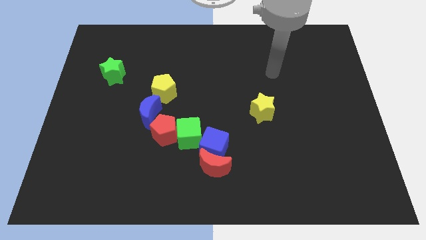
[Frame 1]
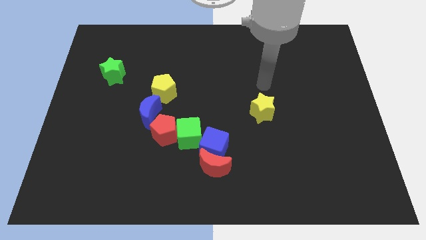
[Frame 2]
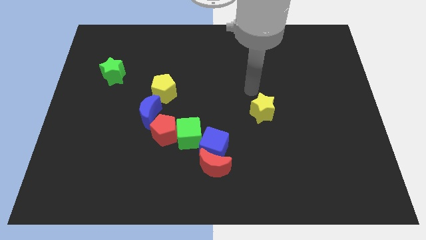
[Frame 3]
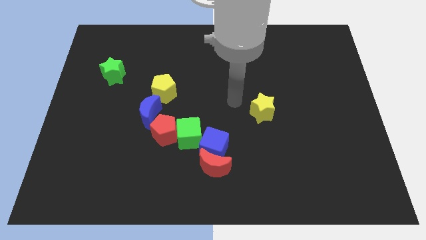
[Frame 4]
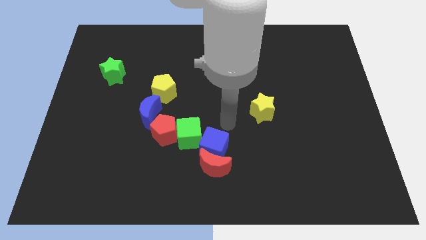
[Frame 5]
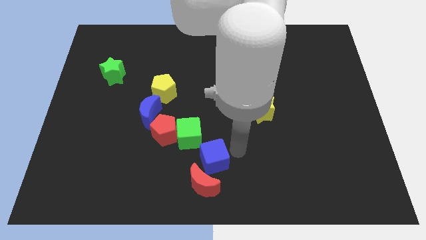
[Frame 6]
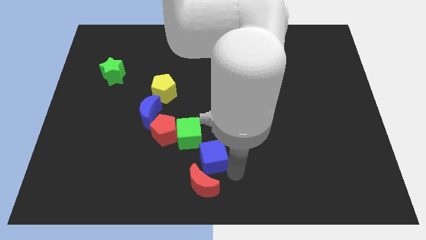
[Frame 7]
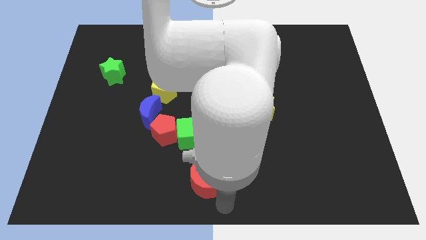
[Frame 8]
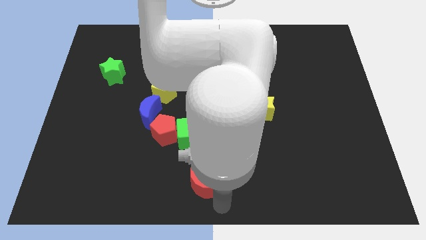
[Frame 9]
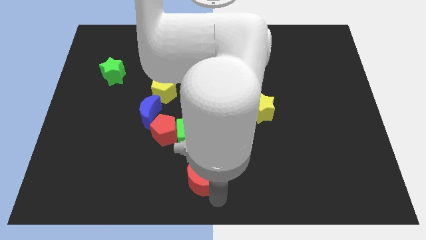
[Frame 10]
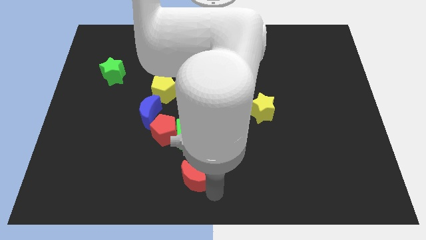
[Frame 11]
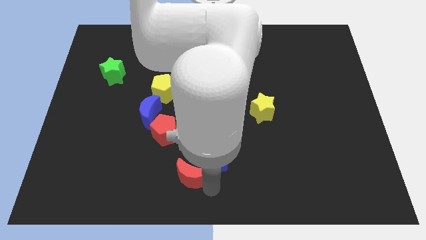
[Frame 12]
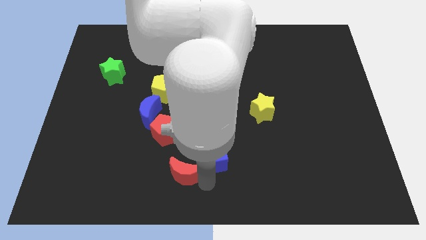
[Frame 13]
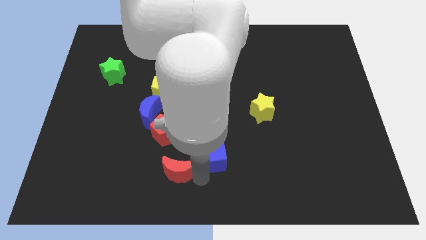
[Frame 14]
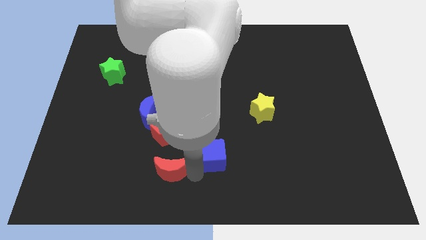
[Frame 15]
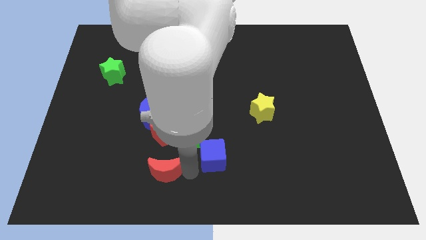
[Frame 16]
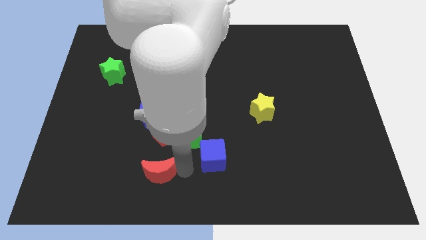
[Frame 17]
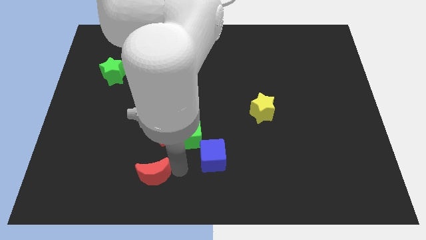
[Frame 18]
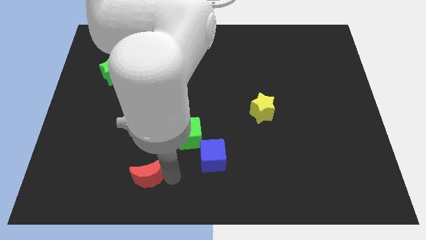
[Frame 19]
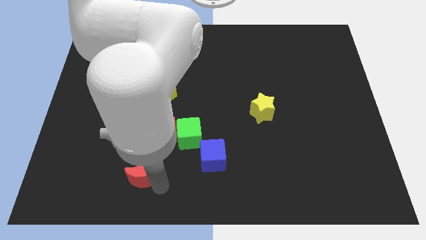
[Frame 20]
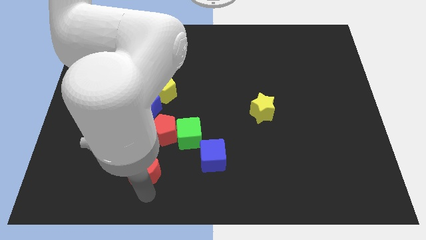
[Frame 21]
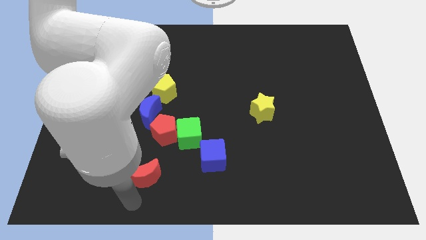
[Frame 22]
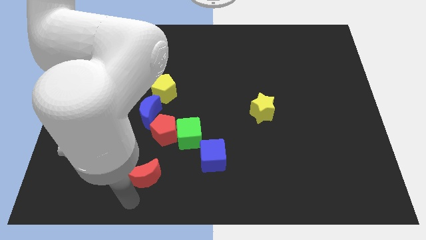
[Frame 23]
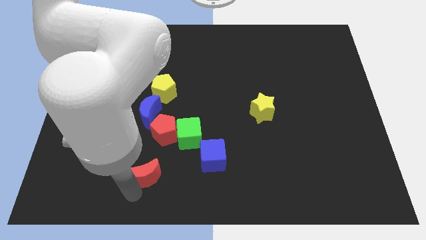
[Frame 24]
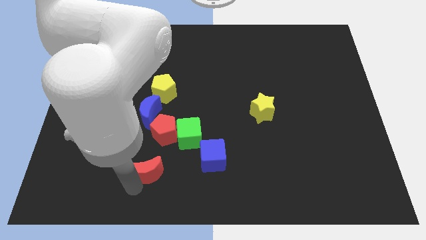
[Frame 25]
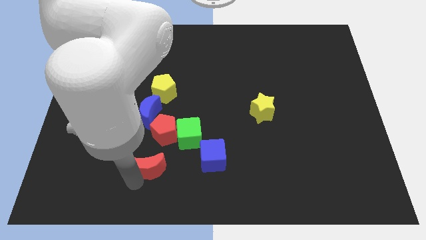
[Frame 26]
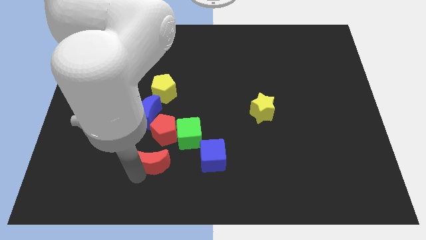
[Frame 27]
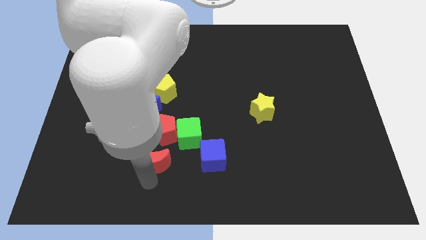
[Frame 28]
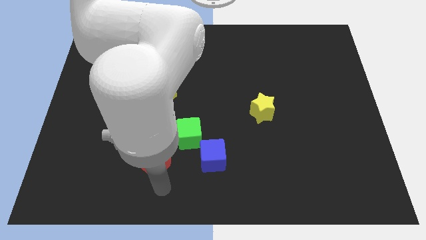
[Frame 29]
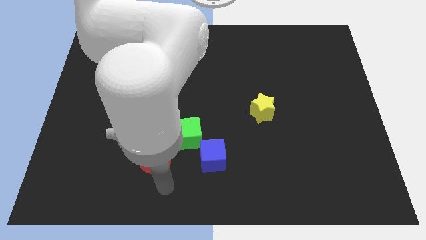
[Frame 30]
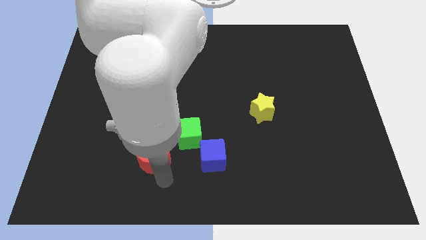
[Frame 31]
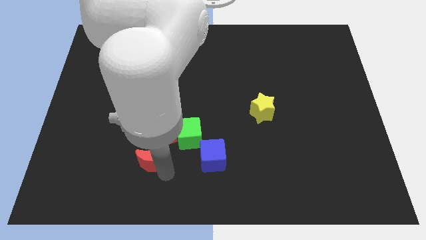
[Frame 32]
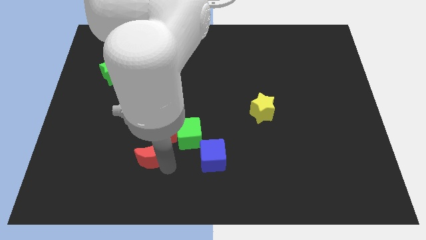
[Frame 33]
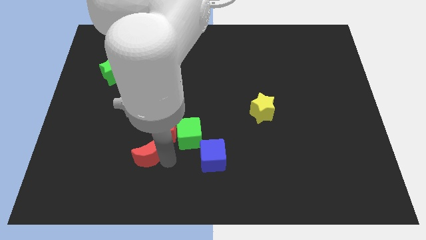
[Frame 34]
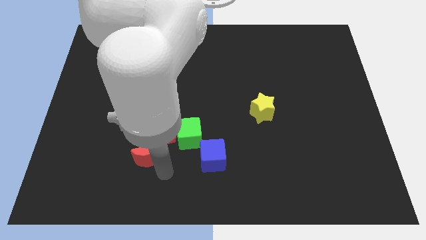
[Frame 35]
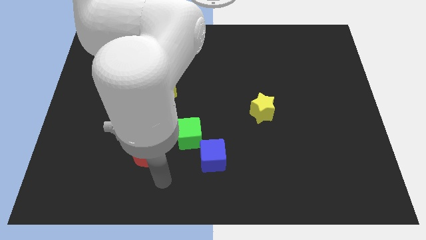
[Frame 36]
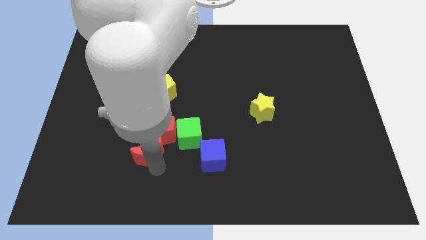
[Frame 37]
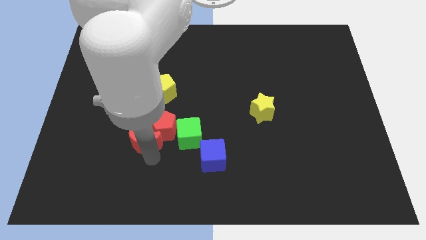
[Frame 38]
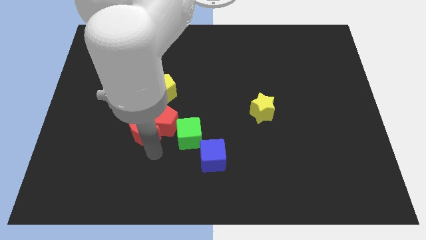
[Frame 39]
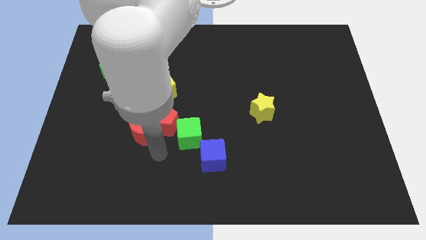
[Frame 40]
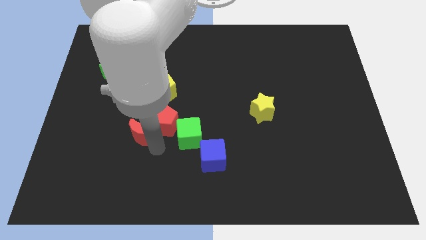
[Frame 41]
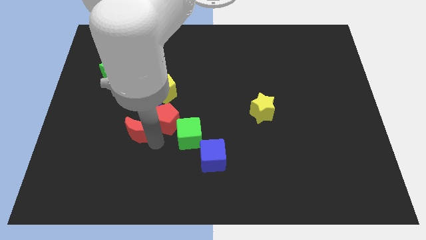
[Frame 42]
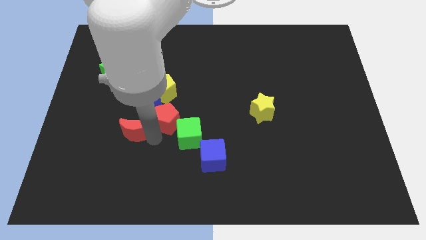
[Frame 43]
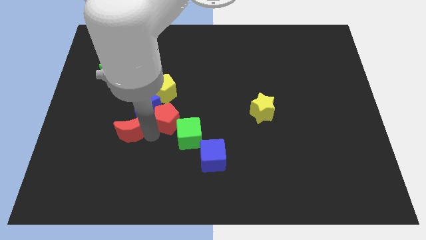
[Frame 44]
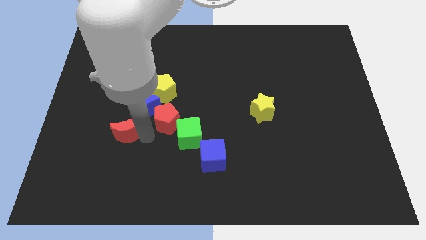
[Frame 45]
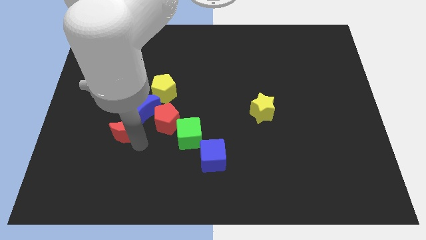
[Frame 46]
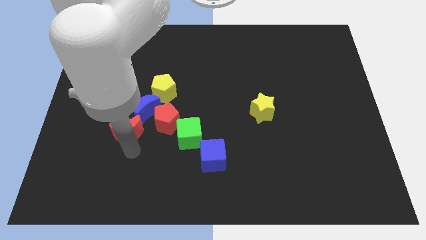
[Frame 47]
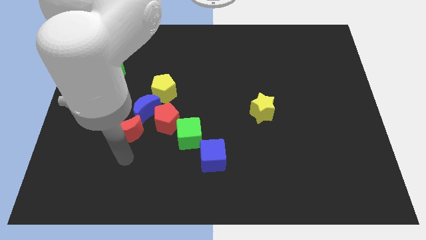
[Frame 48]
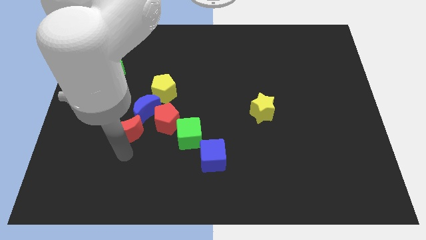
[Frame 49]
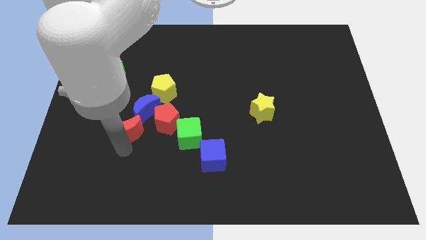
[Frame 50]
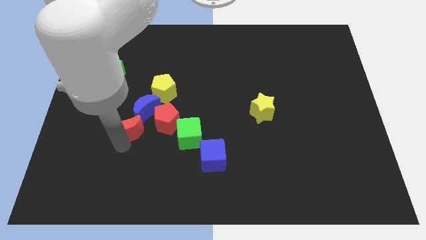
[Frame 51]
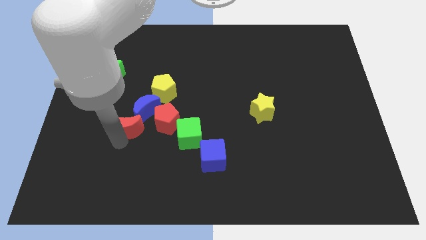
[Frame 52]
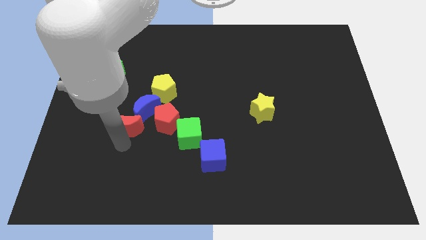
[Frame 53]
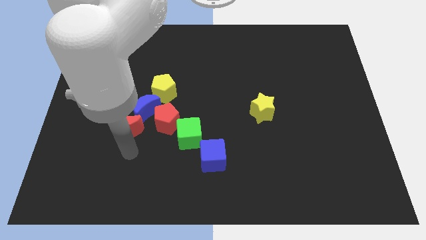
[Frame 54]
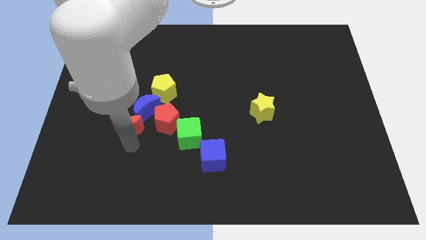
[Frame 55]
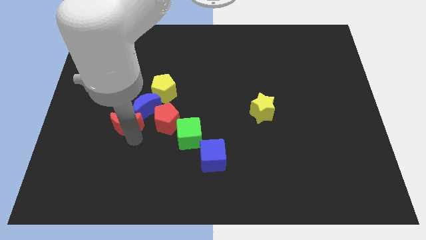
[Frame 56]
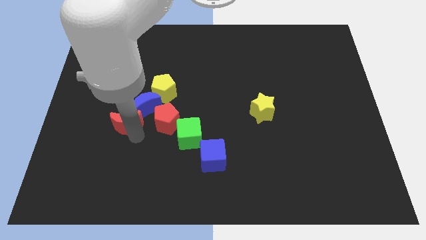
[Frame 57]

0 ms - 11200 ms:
slide the red moon upwards and left diagonally

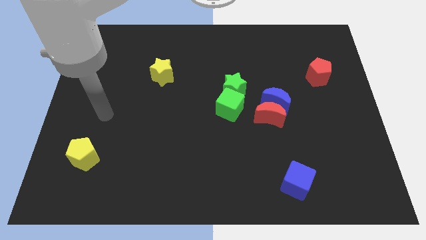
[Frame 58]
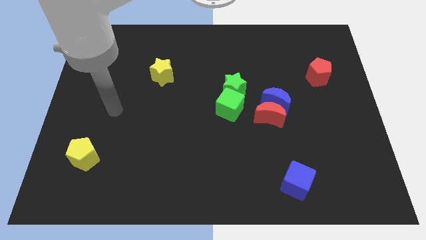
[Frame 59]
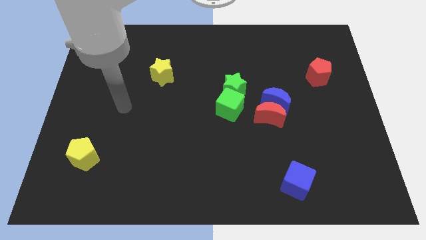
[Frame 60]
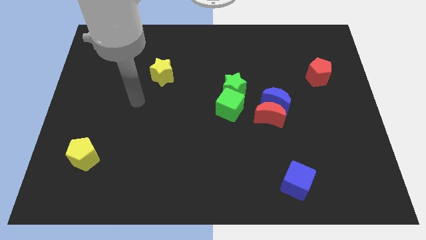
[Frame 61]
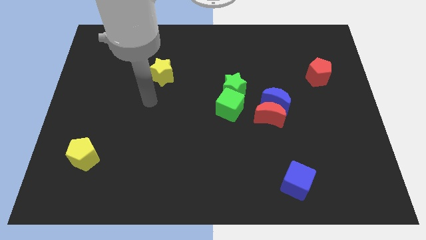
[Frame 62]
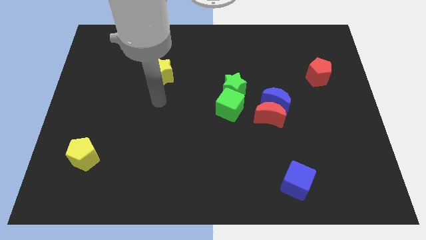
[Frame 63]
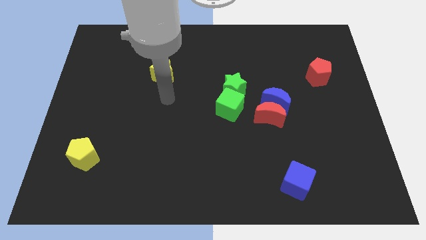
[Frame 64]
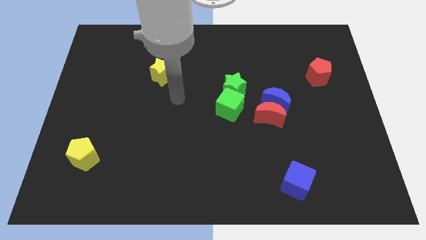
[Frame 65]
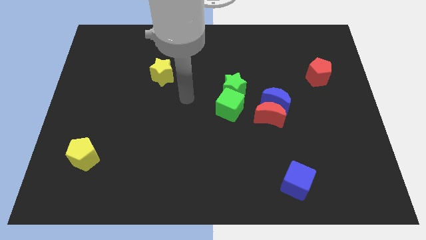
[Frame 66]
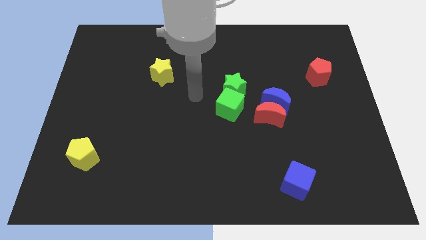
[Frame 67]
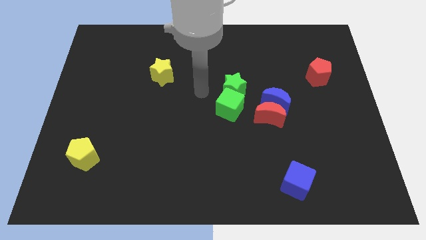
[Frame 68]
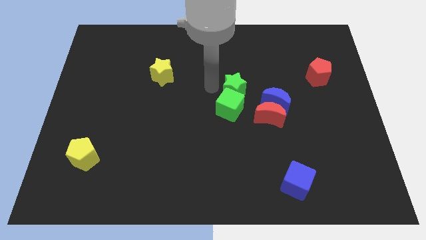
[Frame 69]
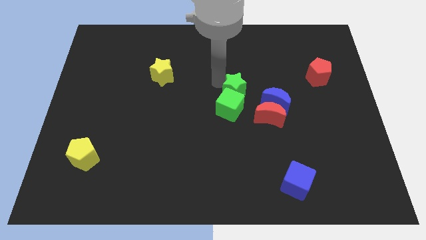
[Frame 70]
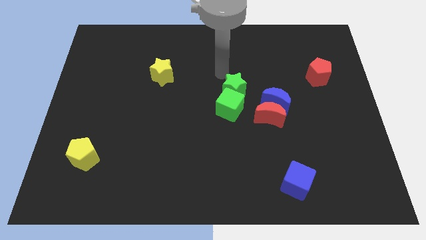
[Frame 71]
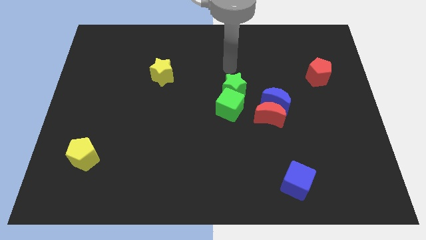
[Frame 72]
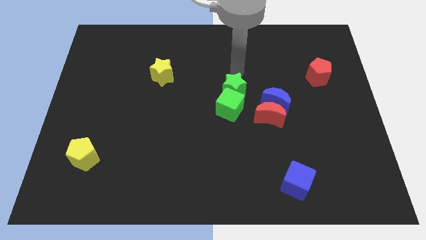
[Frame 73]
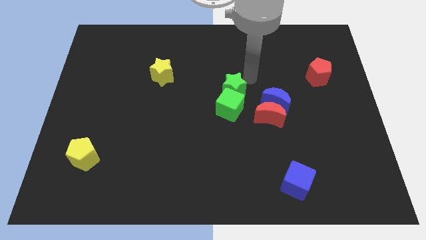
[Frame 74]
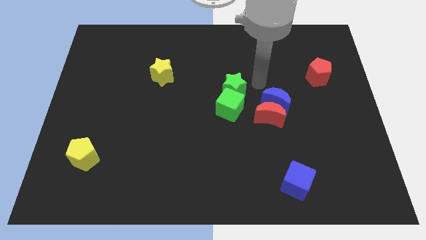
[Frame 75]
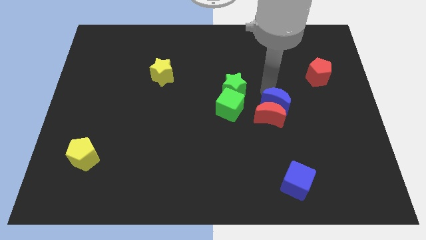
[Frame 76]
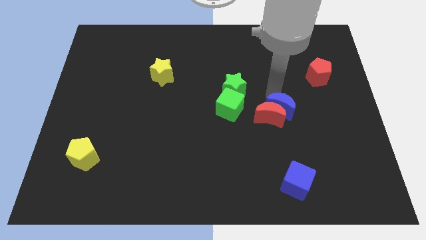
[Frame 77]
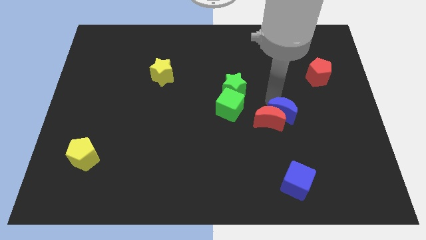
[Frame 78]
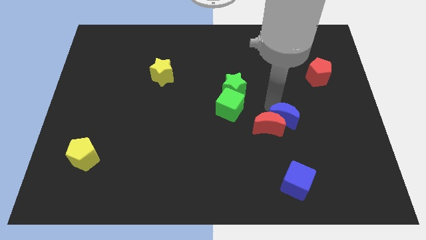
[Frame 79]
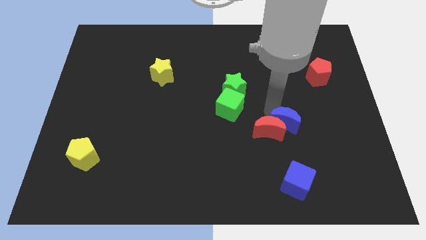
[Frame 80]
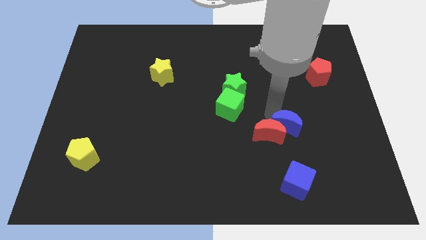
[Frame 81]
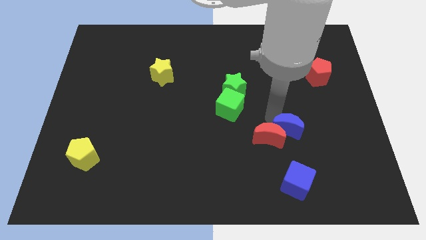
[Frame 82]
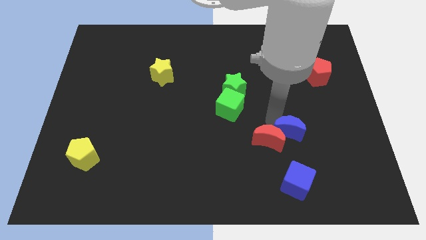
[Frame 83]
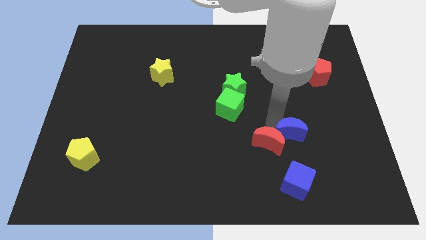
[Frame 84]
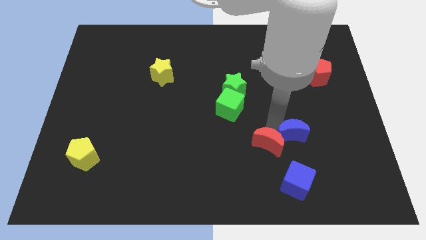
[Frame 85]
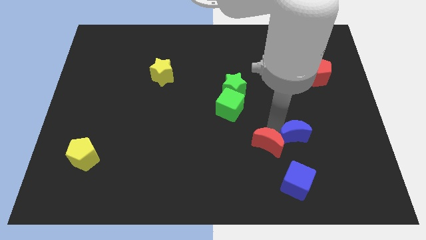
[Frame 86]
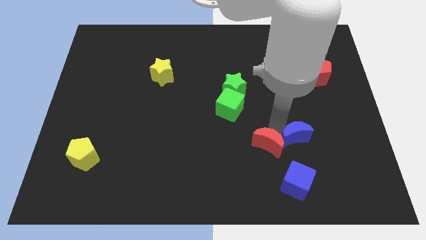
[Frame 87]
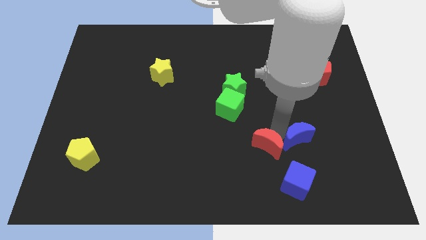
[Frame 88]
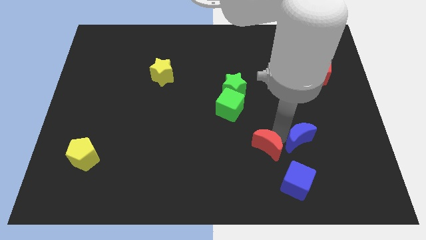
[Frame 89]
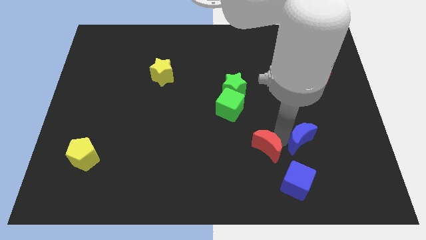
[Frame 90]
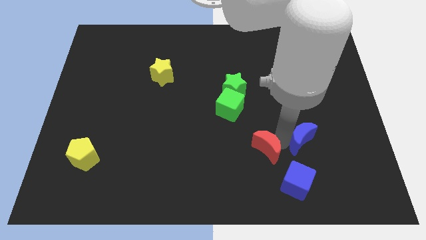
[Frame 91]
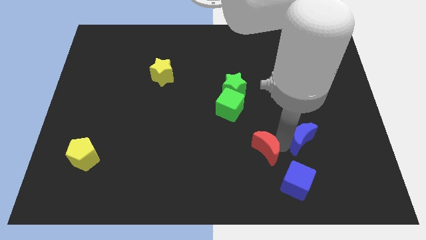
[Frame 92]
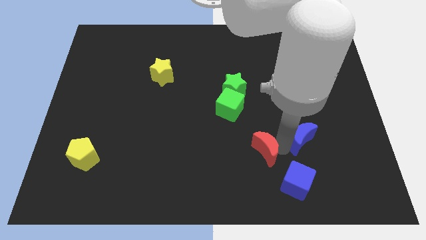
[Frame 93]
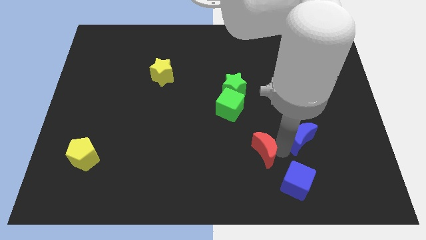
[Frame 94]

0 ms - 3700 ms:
move the red moon downwards and left diagonally somewhat
